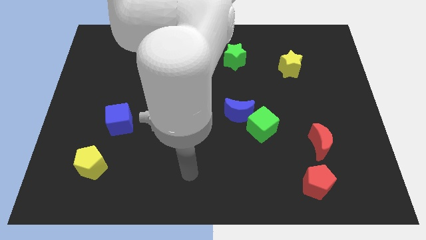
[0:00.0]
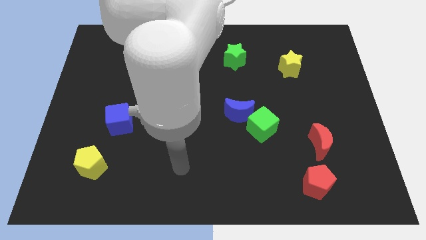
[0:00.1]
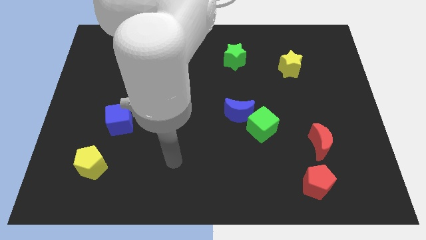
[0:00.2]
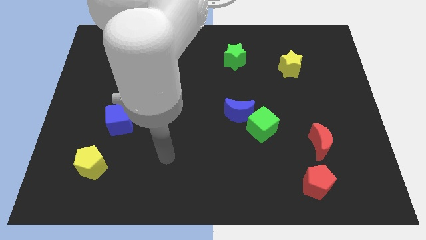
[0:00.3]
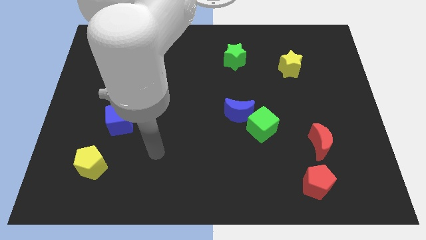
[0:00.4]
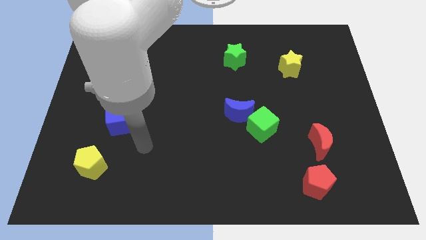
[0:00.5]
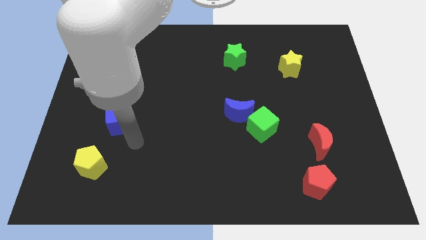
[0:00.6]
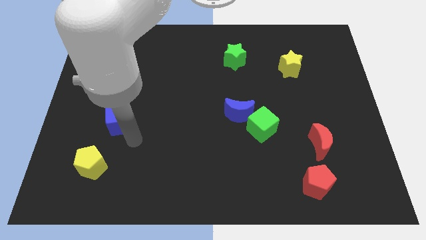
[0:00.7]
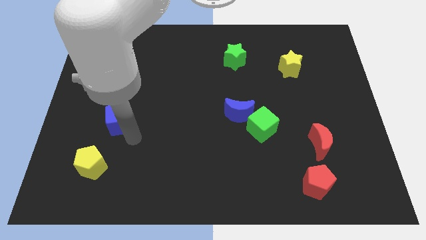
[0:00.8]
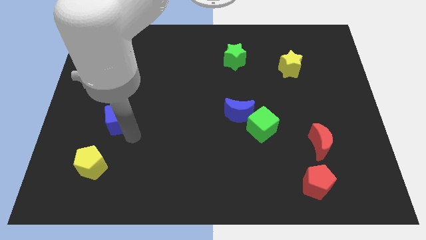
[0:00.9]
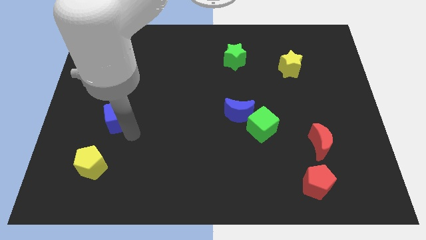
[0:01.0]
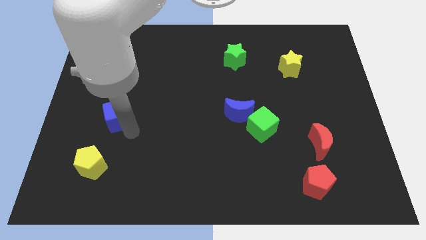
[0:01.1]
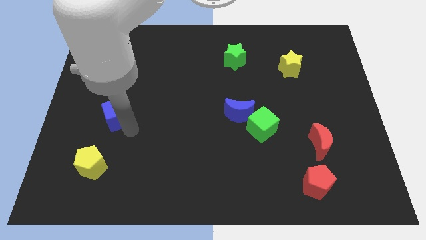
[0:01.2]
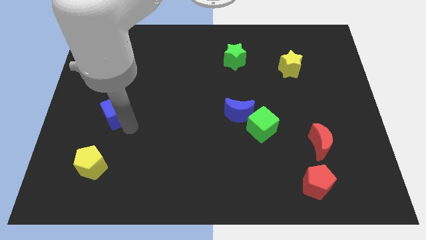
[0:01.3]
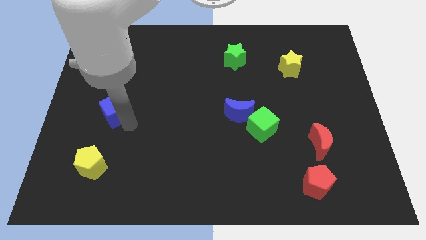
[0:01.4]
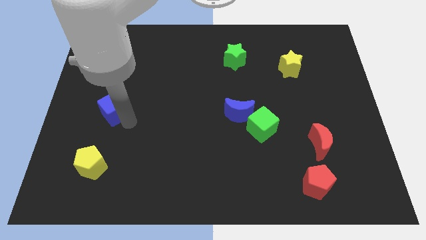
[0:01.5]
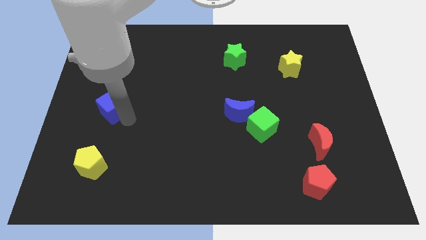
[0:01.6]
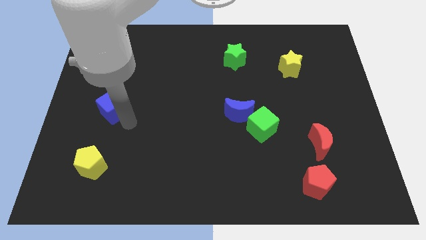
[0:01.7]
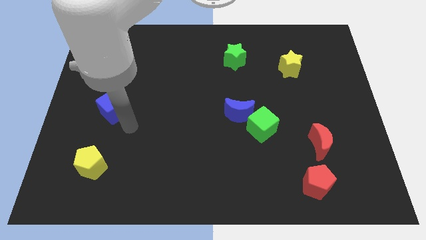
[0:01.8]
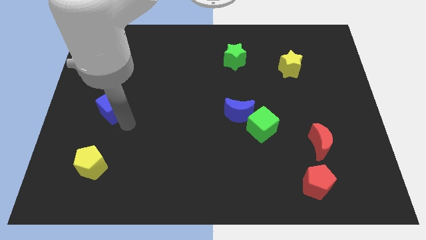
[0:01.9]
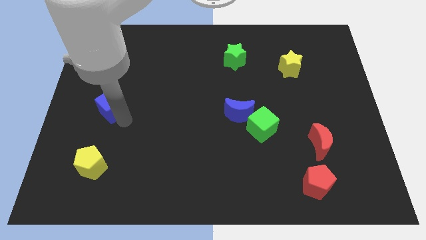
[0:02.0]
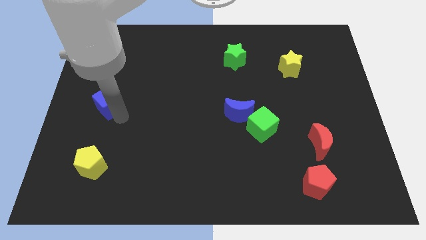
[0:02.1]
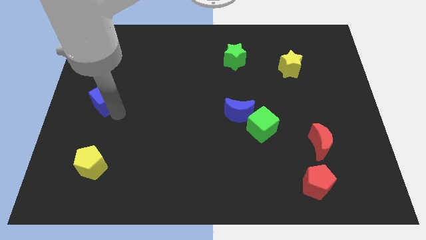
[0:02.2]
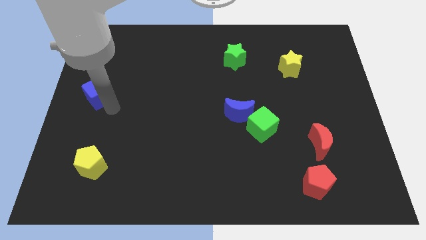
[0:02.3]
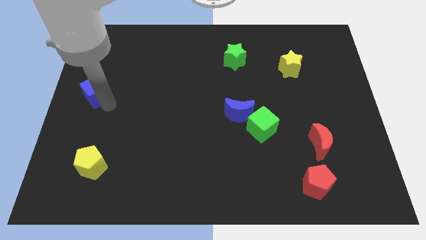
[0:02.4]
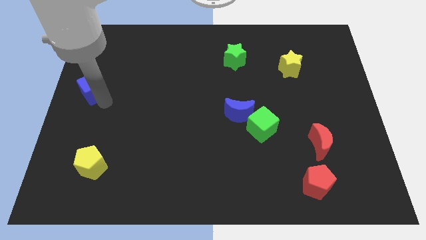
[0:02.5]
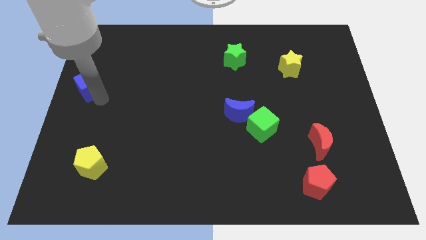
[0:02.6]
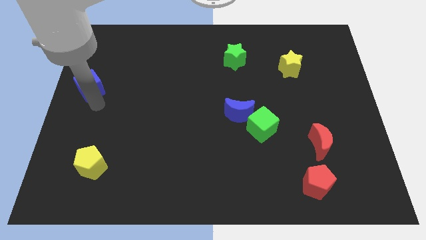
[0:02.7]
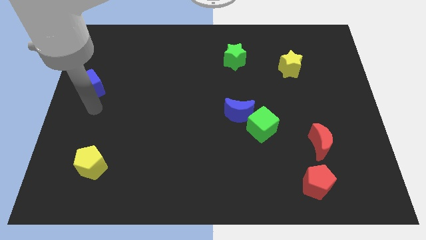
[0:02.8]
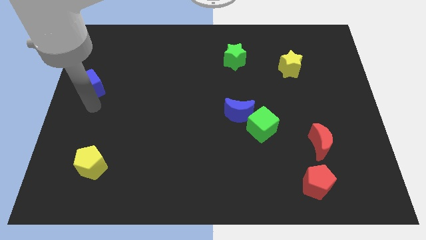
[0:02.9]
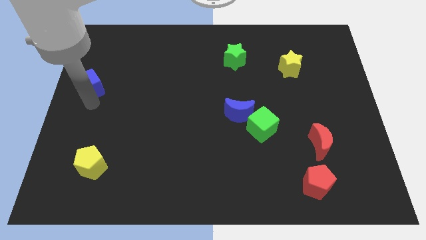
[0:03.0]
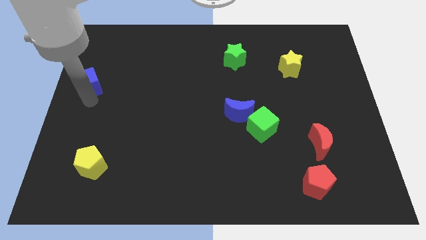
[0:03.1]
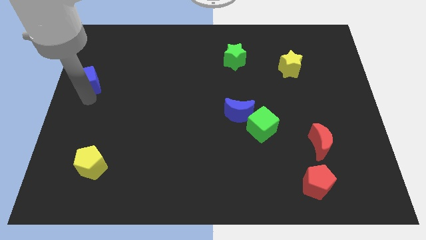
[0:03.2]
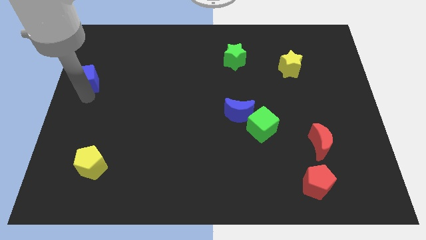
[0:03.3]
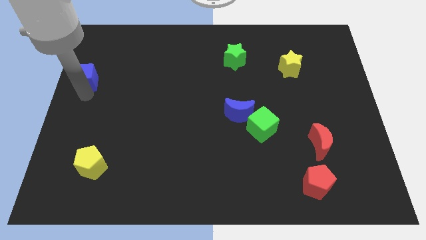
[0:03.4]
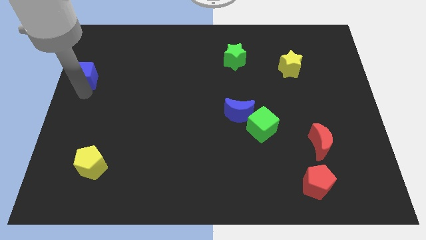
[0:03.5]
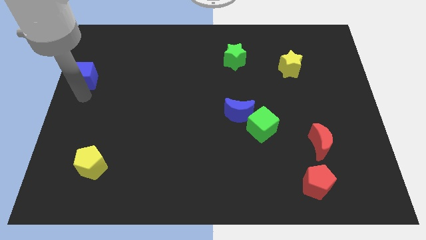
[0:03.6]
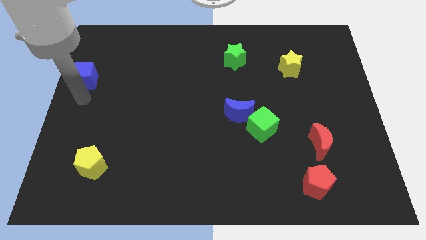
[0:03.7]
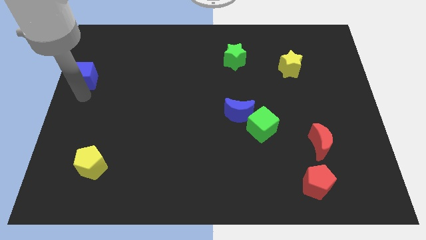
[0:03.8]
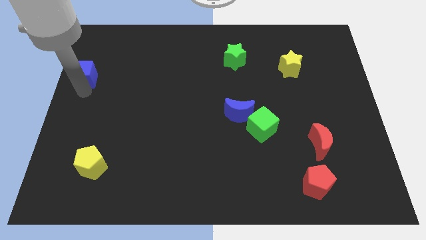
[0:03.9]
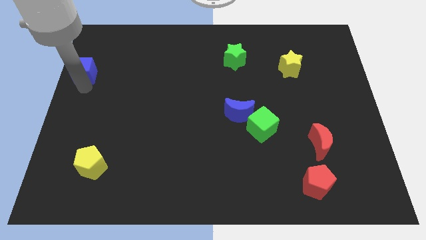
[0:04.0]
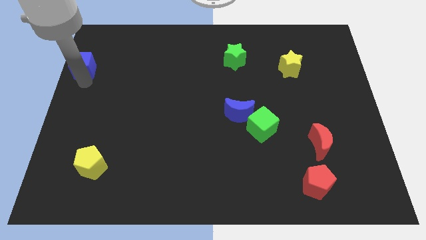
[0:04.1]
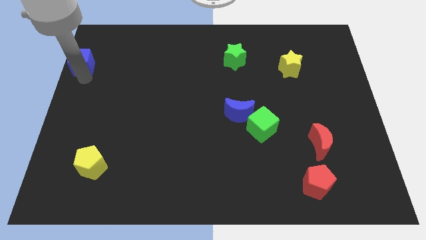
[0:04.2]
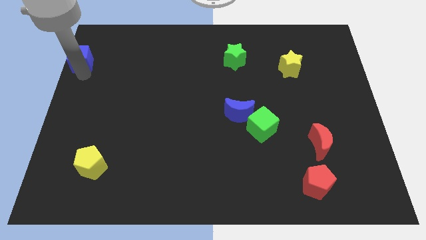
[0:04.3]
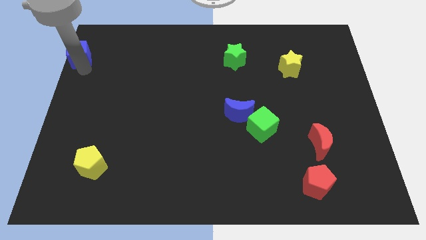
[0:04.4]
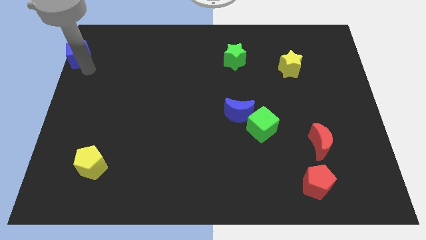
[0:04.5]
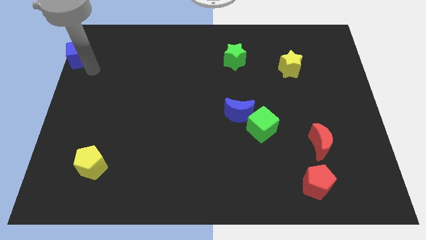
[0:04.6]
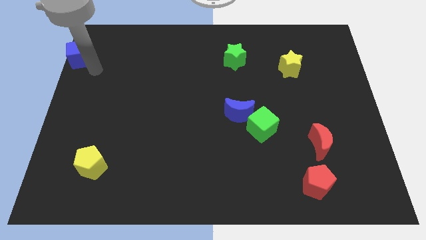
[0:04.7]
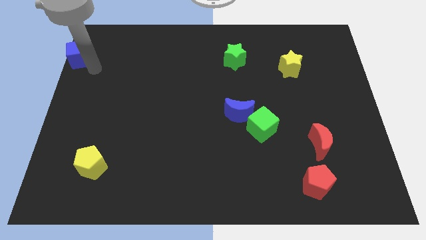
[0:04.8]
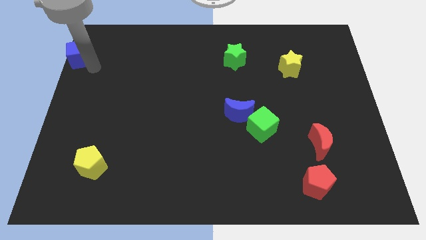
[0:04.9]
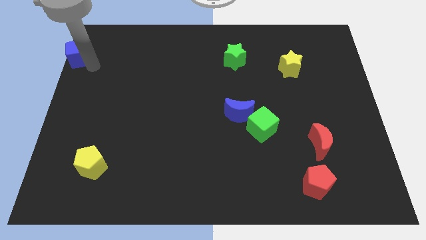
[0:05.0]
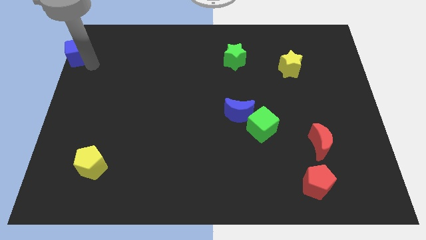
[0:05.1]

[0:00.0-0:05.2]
slide the blue cube to the top left of the board

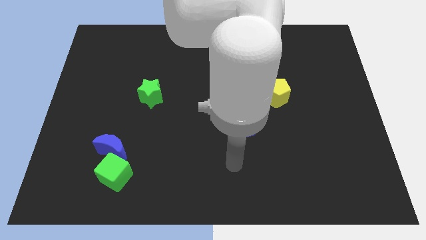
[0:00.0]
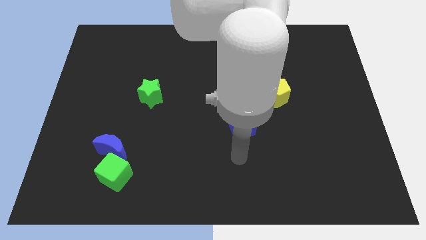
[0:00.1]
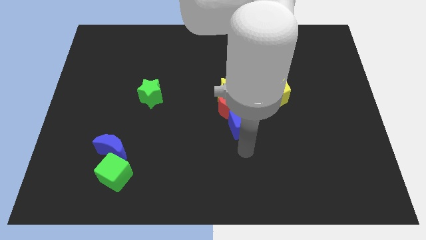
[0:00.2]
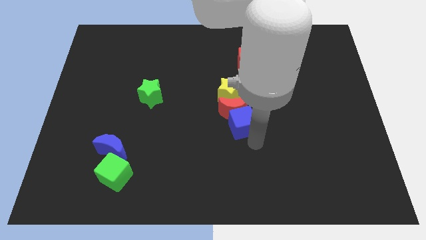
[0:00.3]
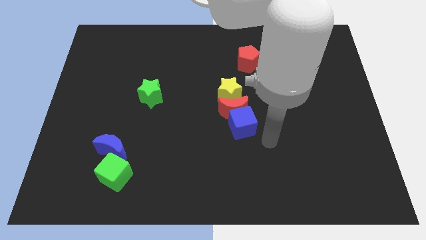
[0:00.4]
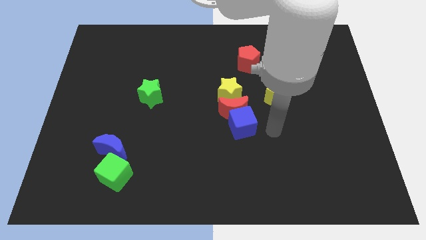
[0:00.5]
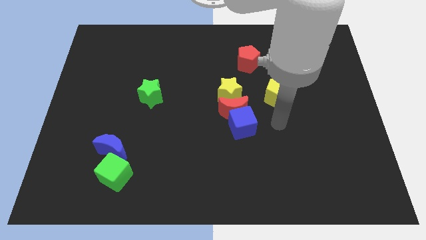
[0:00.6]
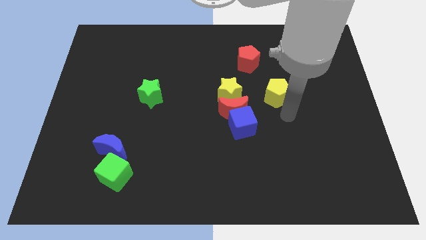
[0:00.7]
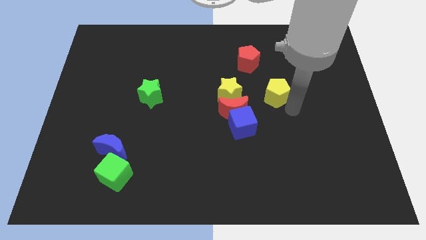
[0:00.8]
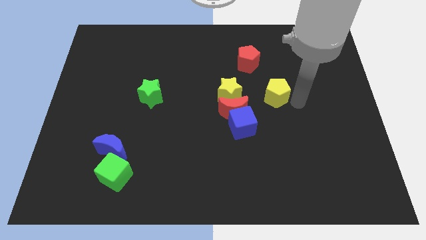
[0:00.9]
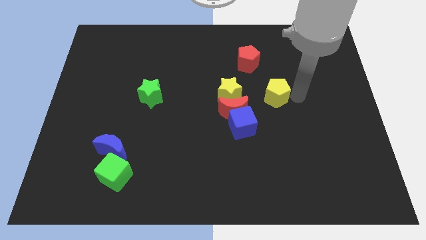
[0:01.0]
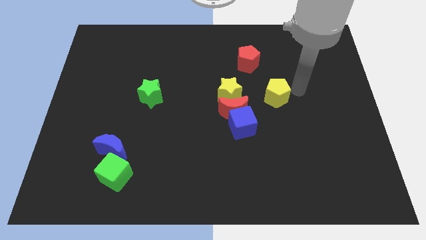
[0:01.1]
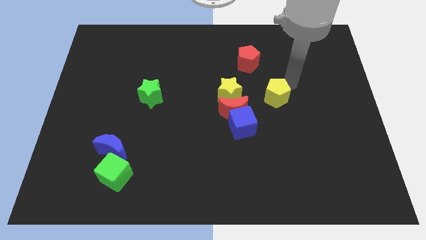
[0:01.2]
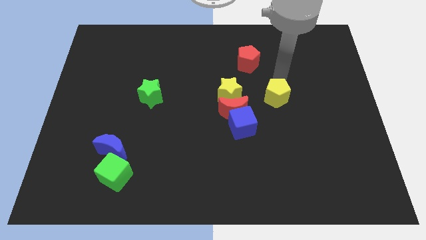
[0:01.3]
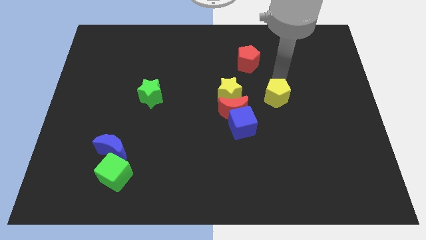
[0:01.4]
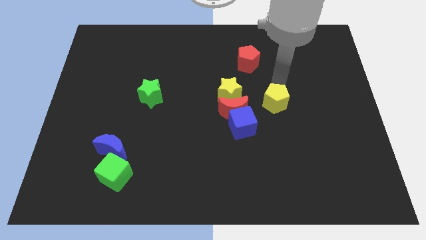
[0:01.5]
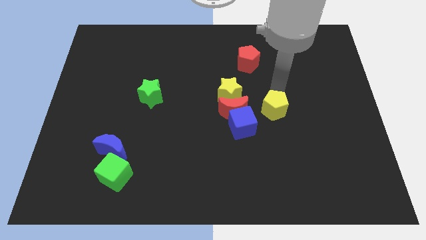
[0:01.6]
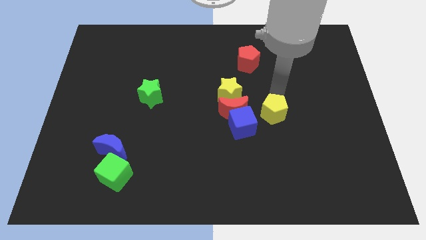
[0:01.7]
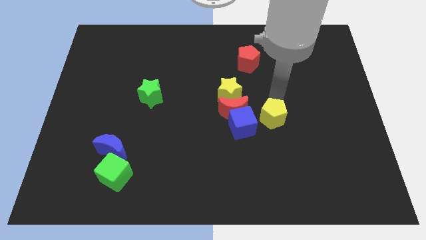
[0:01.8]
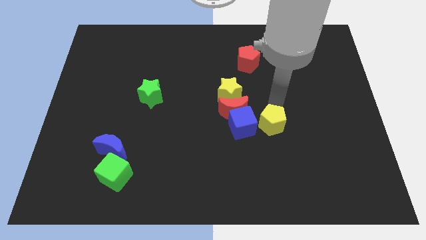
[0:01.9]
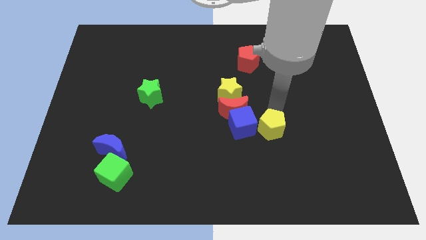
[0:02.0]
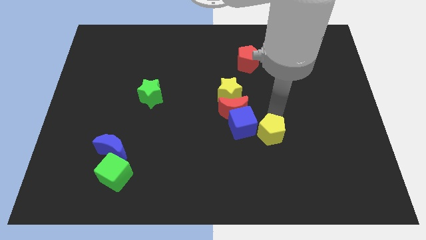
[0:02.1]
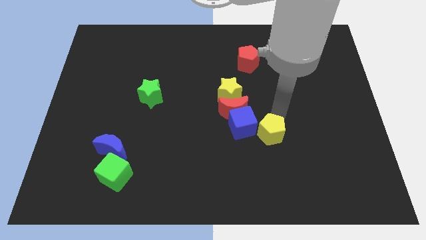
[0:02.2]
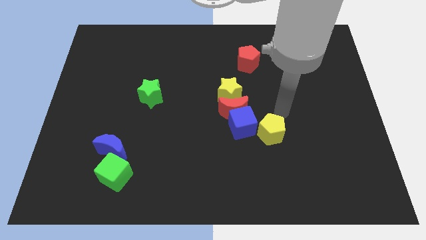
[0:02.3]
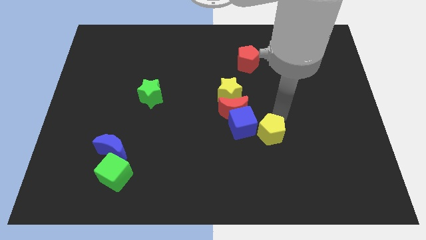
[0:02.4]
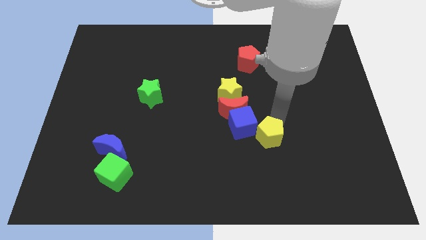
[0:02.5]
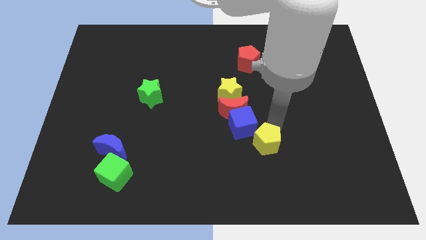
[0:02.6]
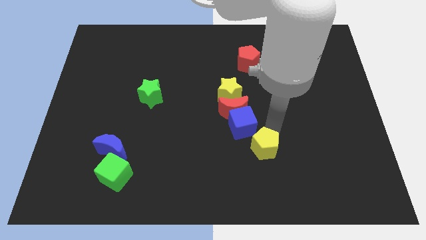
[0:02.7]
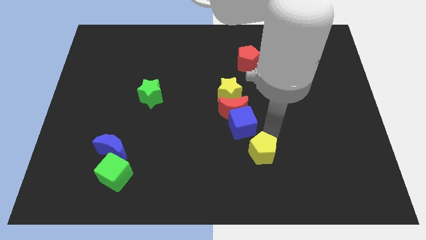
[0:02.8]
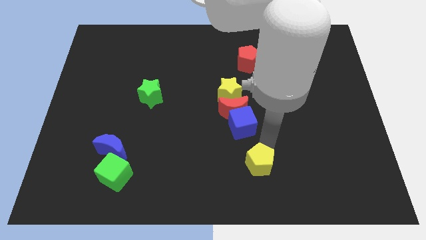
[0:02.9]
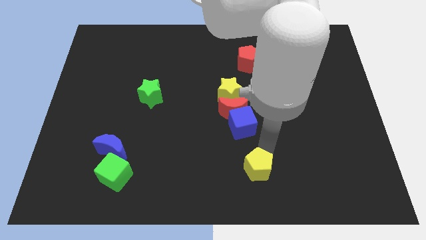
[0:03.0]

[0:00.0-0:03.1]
put the yellow pentagon to the bottom
